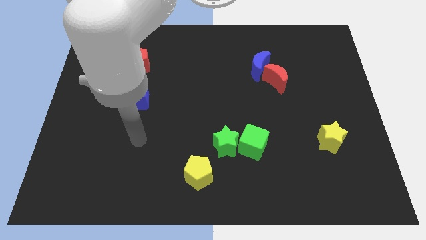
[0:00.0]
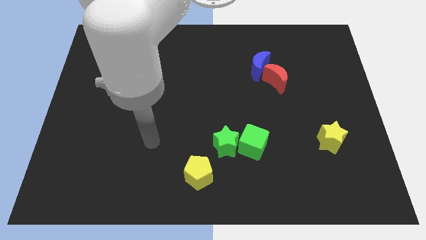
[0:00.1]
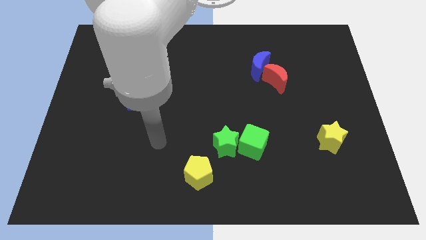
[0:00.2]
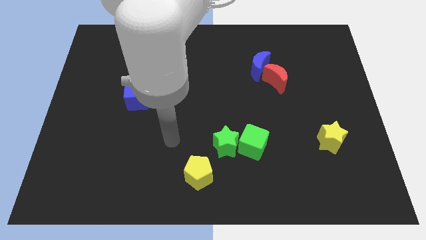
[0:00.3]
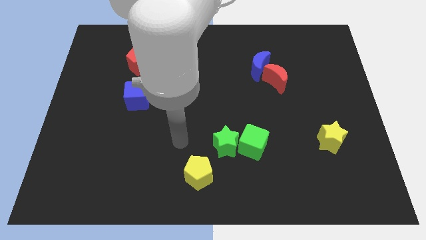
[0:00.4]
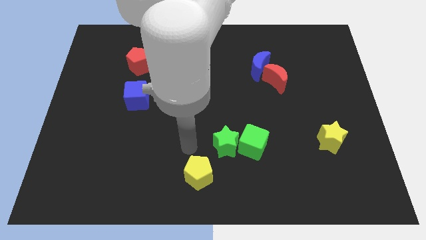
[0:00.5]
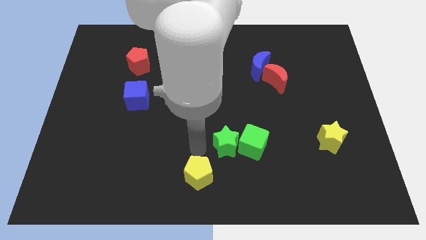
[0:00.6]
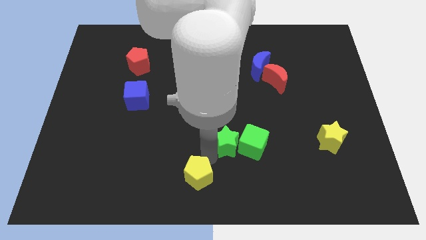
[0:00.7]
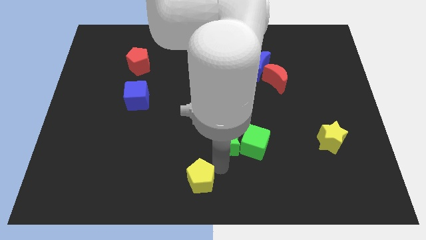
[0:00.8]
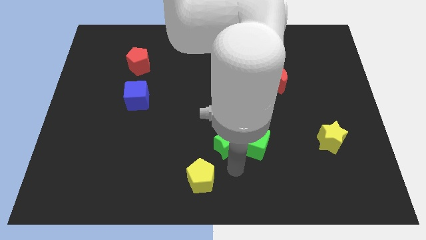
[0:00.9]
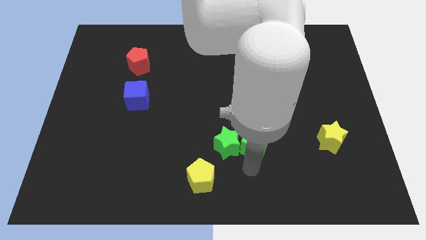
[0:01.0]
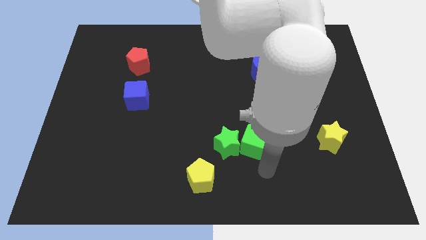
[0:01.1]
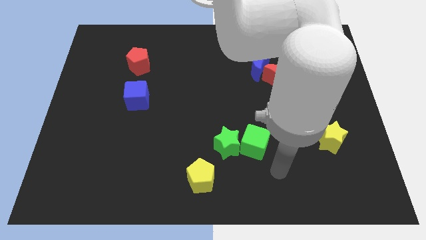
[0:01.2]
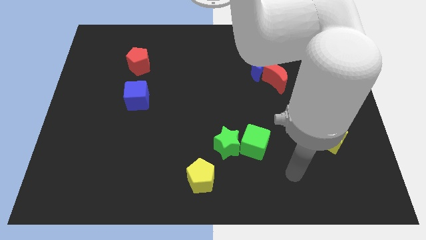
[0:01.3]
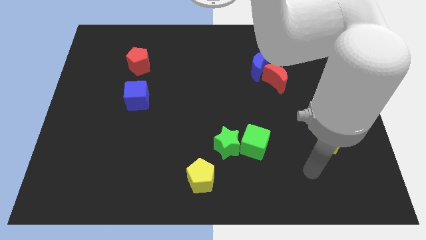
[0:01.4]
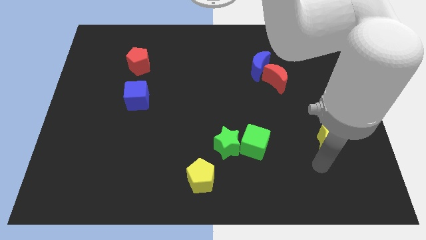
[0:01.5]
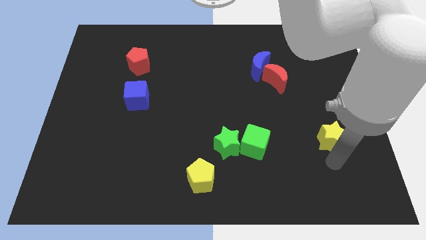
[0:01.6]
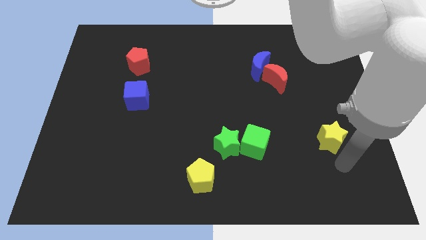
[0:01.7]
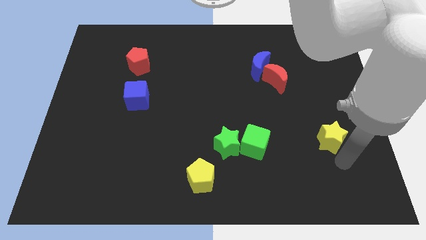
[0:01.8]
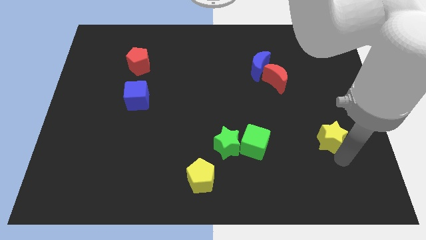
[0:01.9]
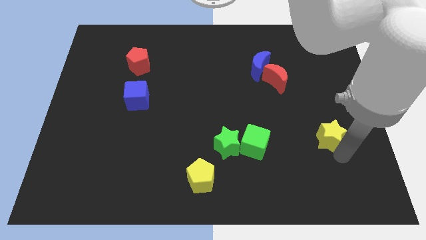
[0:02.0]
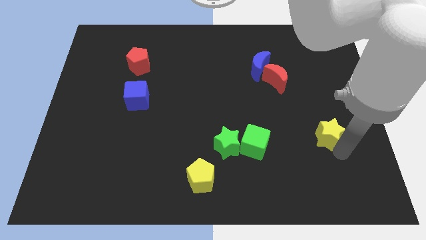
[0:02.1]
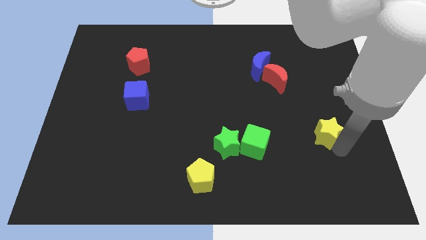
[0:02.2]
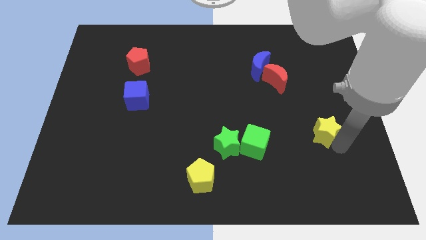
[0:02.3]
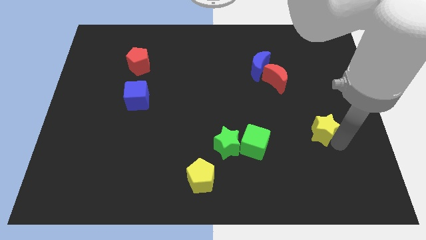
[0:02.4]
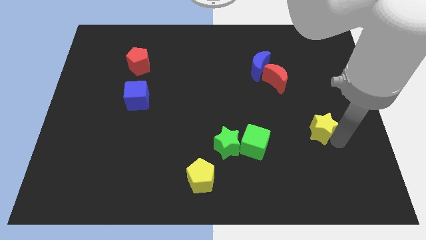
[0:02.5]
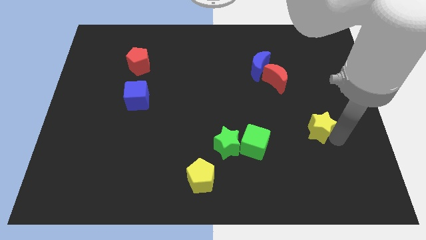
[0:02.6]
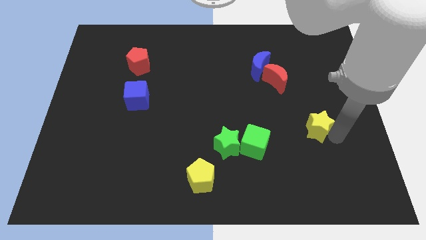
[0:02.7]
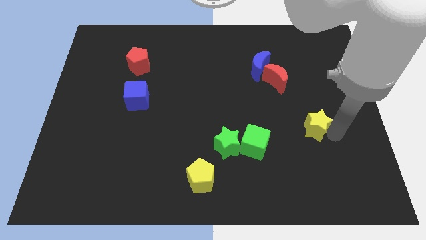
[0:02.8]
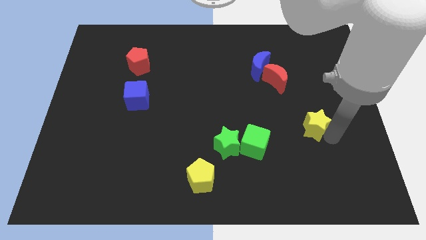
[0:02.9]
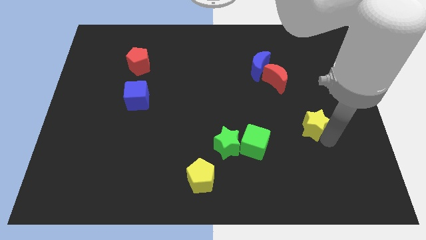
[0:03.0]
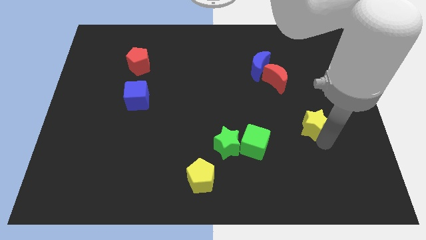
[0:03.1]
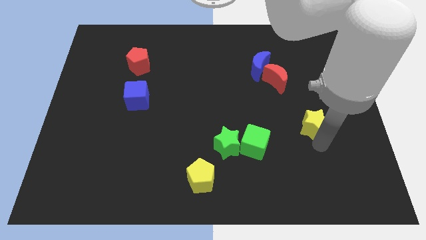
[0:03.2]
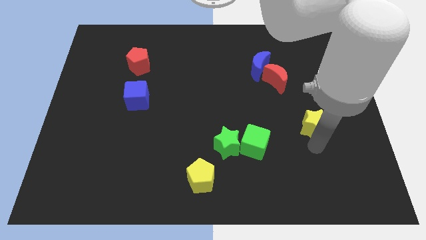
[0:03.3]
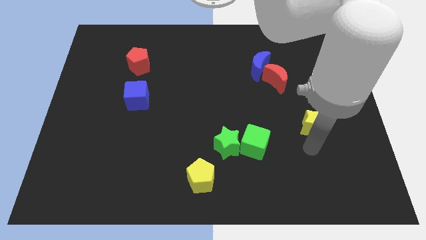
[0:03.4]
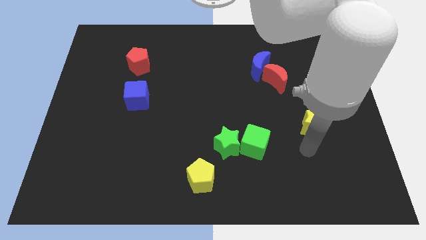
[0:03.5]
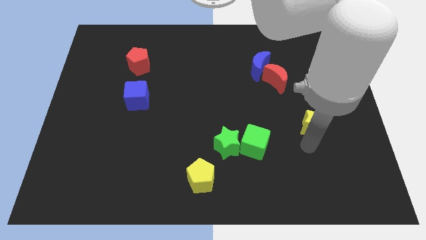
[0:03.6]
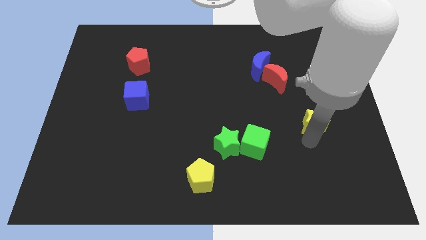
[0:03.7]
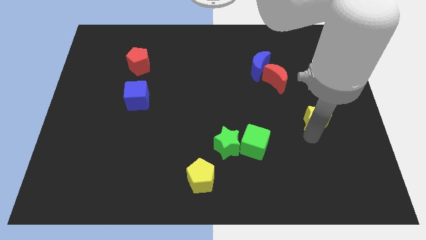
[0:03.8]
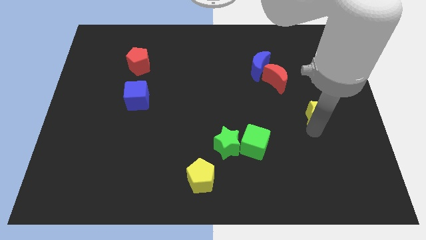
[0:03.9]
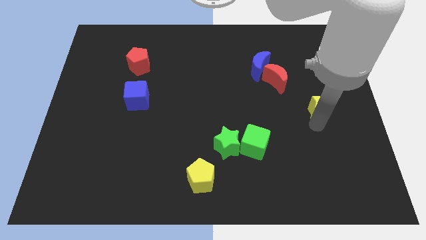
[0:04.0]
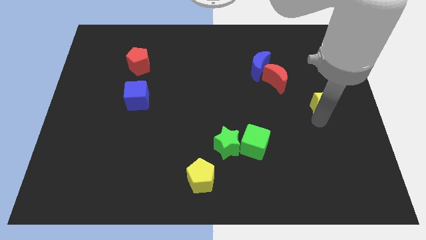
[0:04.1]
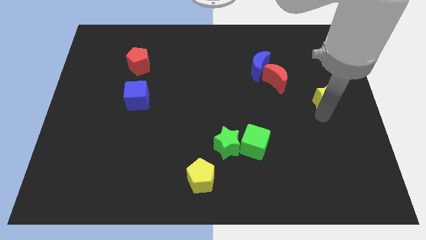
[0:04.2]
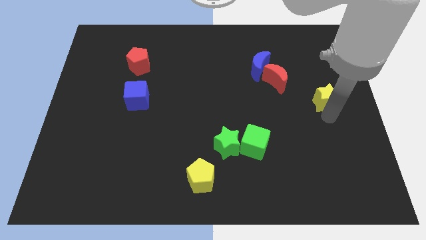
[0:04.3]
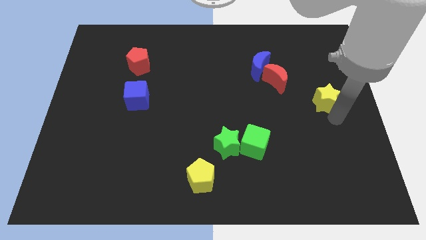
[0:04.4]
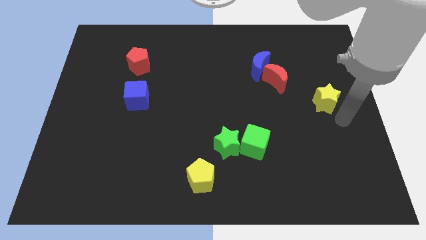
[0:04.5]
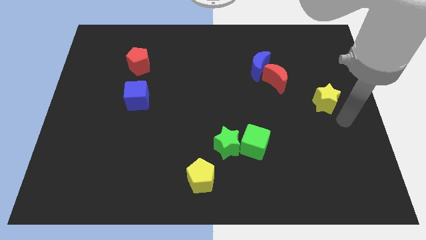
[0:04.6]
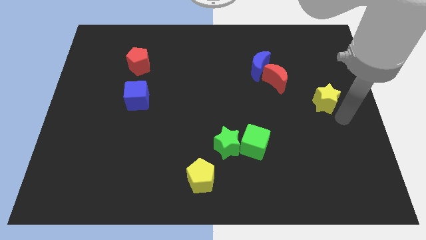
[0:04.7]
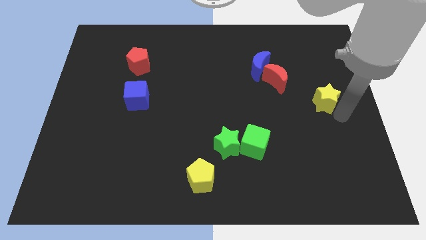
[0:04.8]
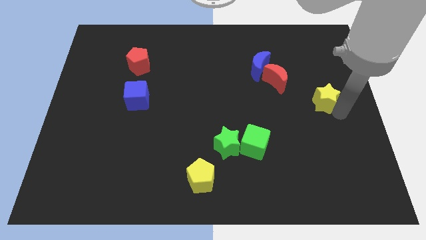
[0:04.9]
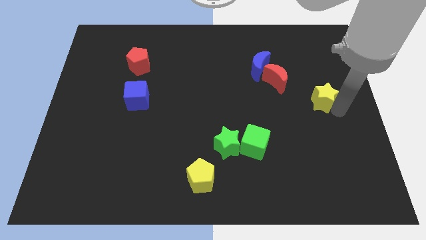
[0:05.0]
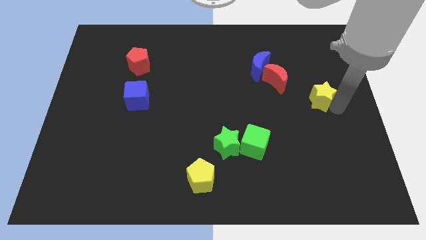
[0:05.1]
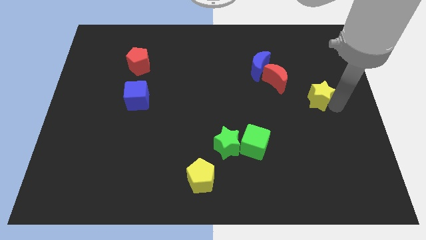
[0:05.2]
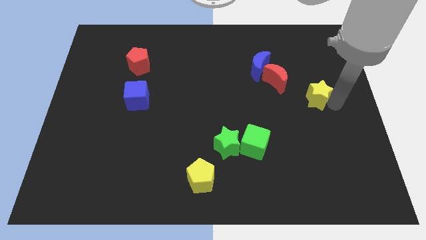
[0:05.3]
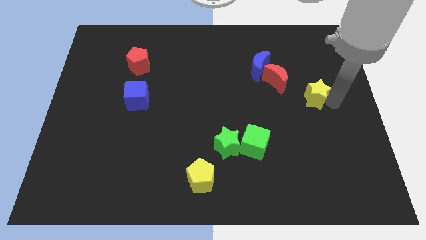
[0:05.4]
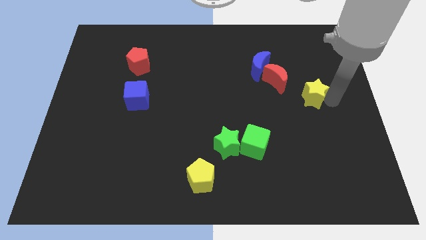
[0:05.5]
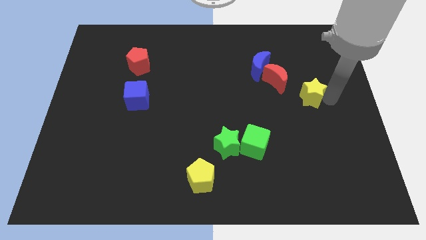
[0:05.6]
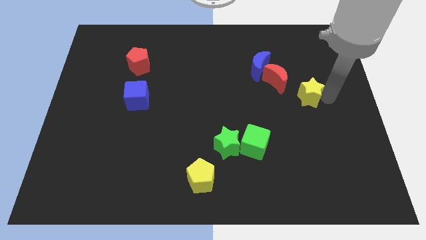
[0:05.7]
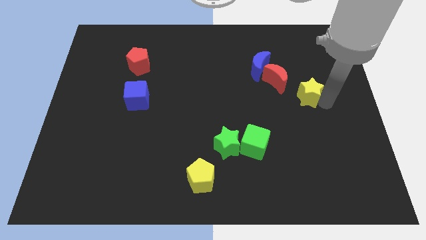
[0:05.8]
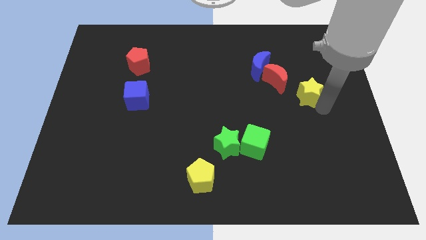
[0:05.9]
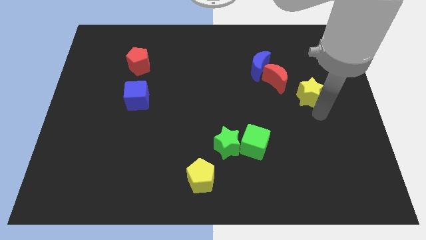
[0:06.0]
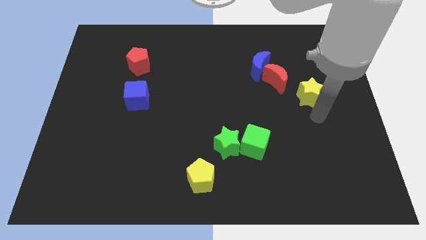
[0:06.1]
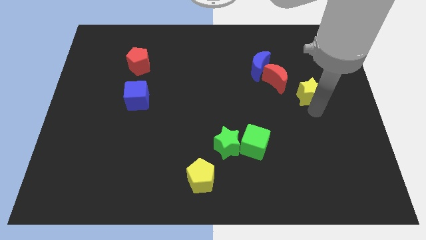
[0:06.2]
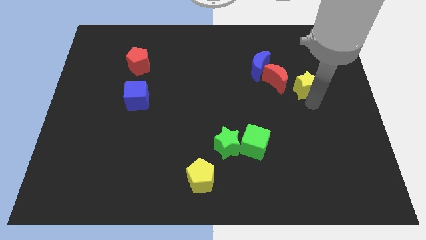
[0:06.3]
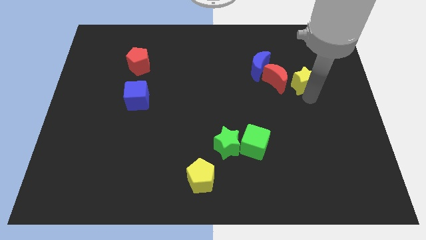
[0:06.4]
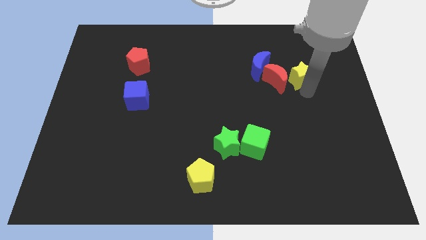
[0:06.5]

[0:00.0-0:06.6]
move the yellow star just right of the blue moon

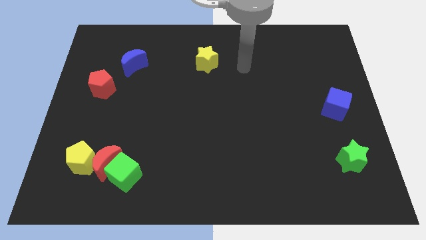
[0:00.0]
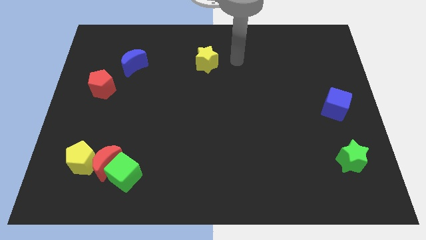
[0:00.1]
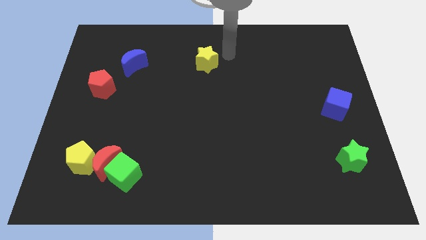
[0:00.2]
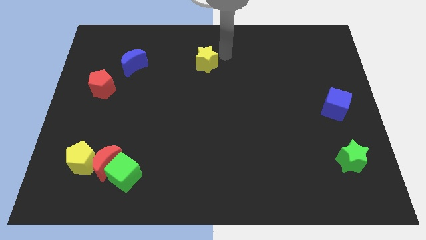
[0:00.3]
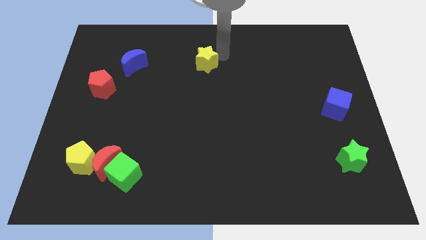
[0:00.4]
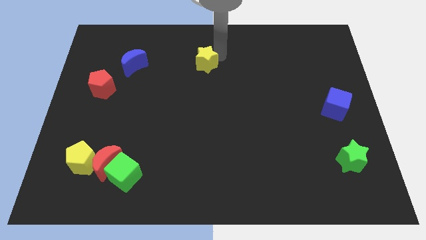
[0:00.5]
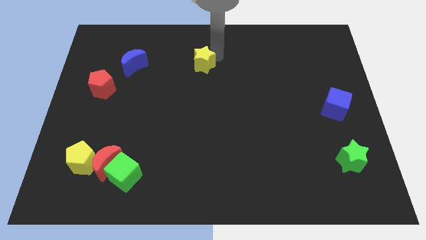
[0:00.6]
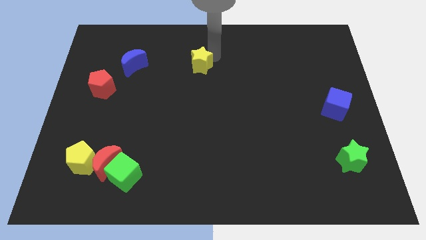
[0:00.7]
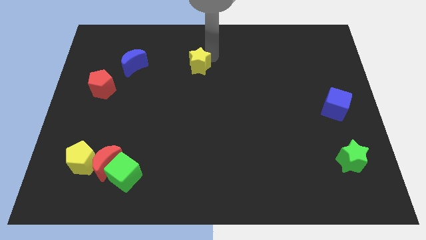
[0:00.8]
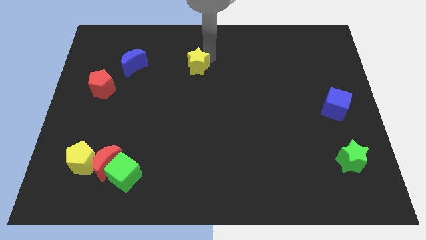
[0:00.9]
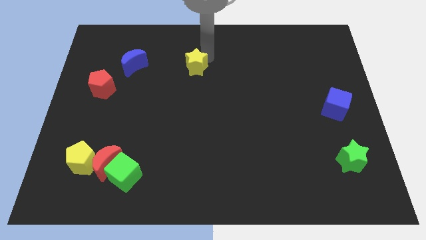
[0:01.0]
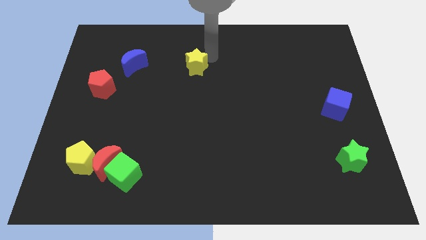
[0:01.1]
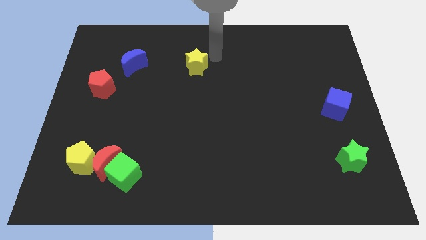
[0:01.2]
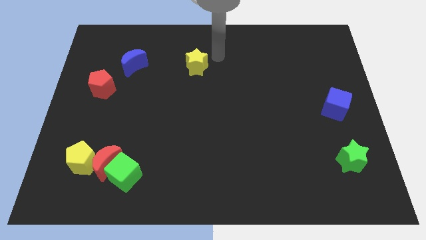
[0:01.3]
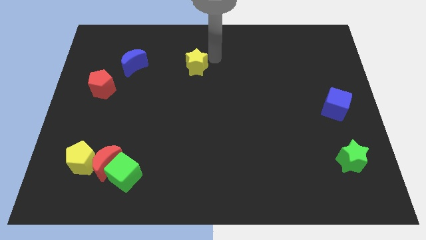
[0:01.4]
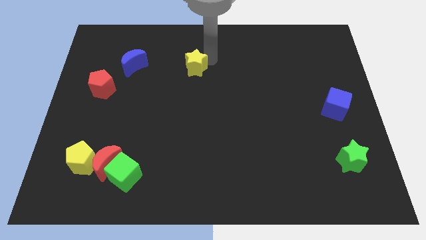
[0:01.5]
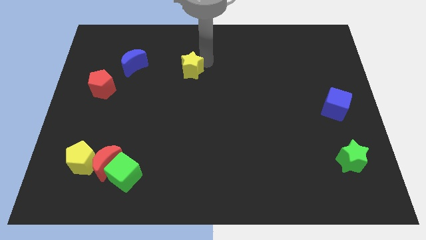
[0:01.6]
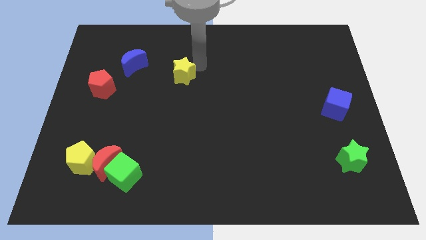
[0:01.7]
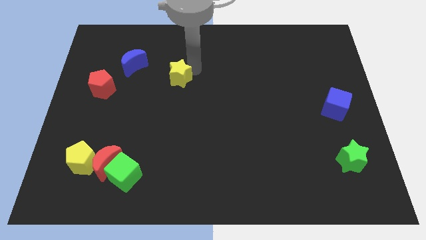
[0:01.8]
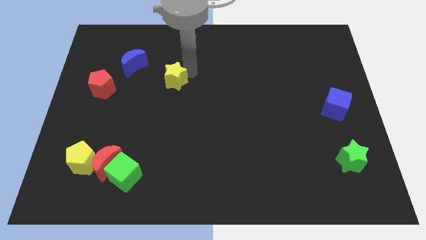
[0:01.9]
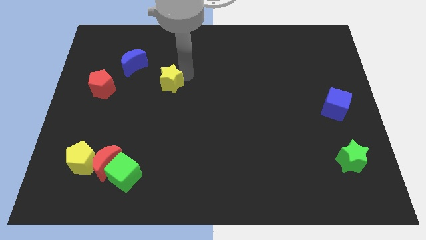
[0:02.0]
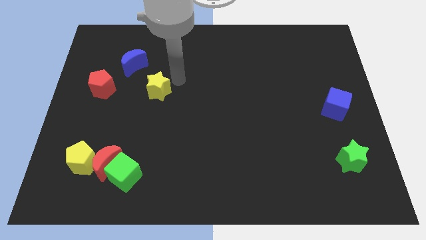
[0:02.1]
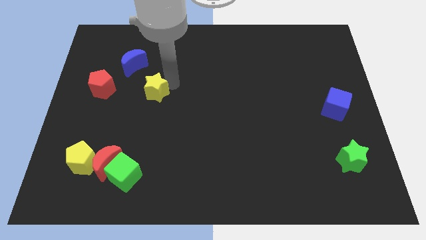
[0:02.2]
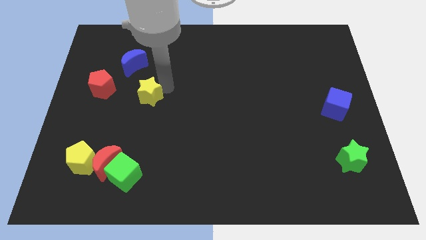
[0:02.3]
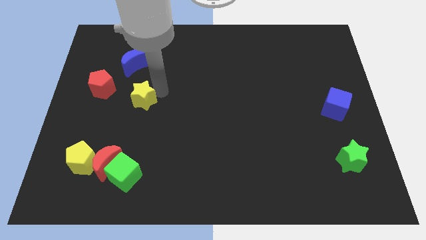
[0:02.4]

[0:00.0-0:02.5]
push the yellow star to the bottom of the blue moon
